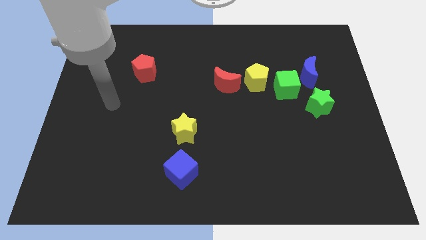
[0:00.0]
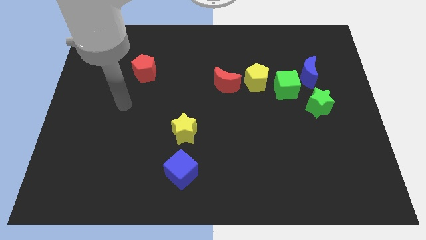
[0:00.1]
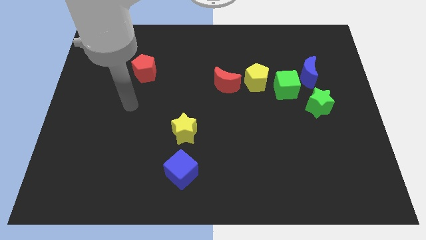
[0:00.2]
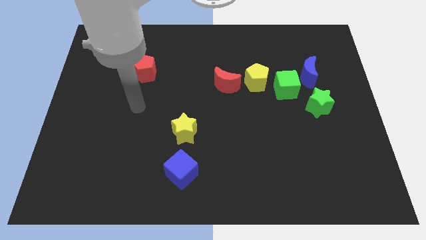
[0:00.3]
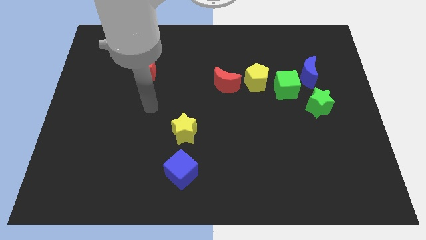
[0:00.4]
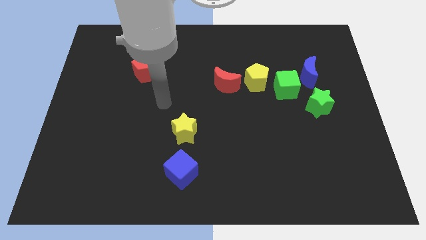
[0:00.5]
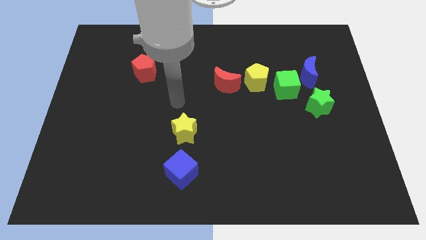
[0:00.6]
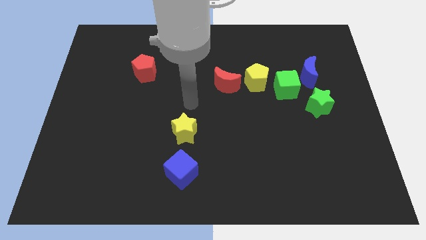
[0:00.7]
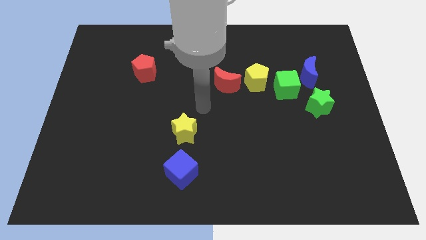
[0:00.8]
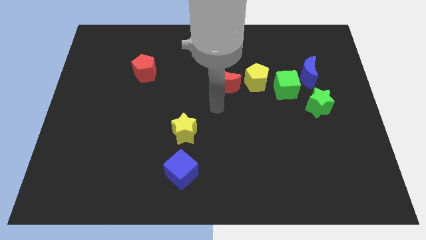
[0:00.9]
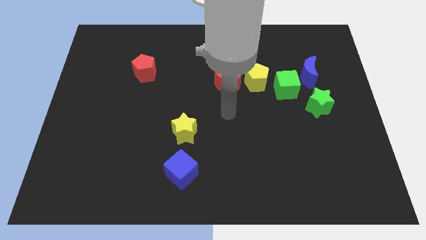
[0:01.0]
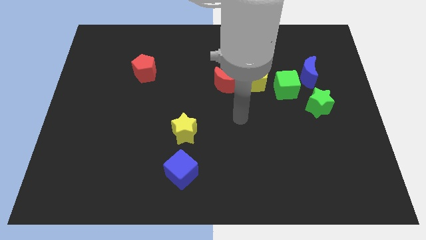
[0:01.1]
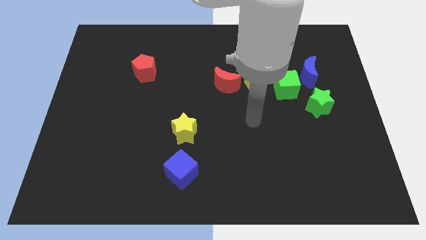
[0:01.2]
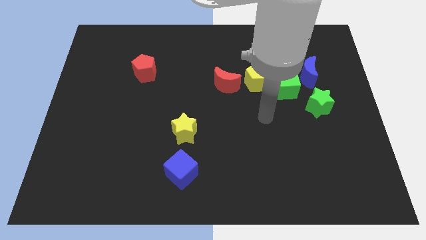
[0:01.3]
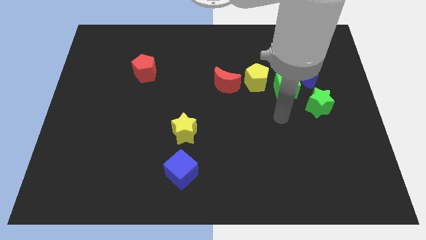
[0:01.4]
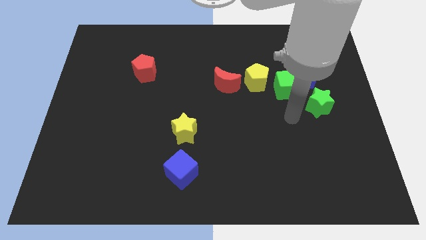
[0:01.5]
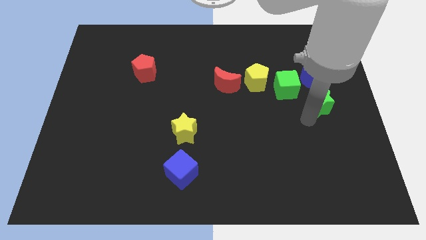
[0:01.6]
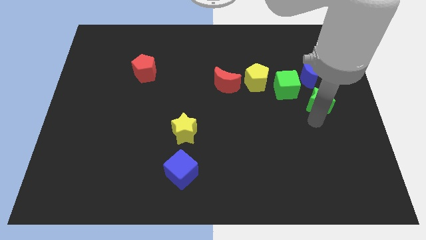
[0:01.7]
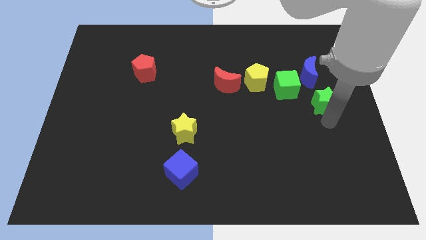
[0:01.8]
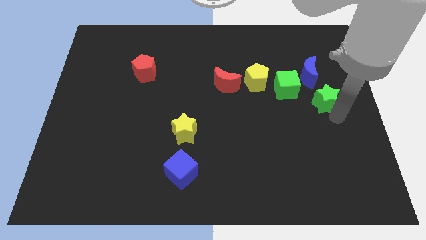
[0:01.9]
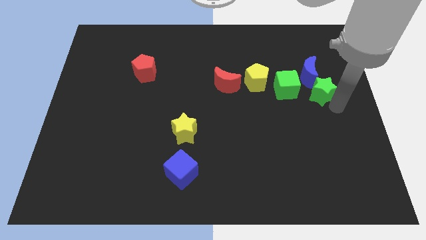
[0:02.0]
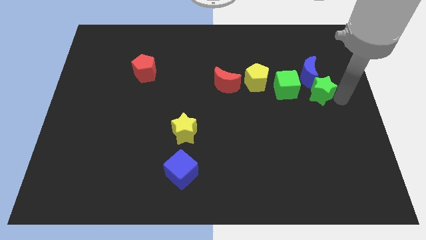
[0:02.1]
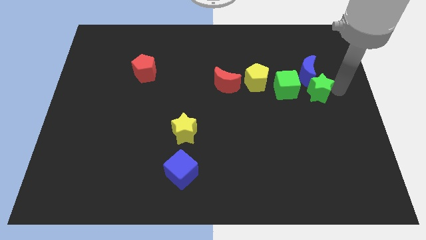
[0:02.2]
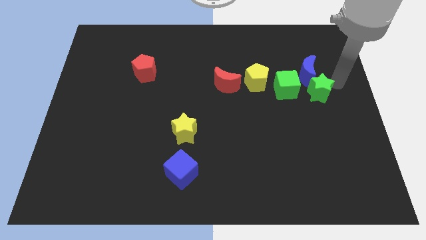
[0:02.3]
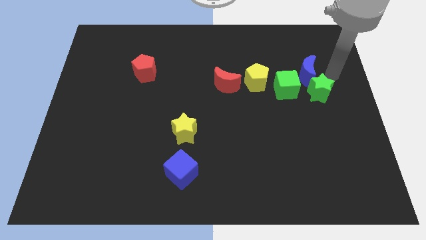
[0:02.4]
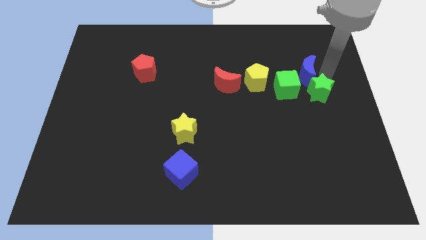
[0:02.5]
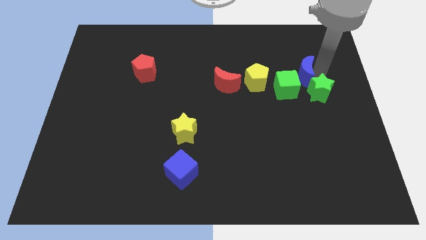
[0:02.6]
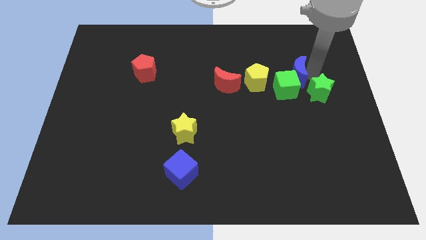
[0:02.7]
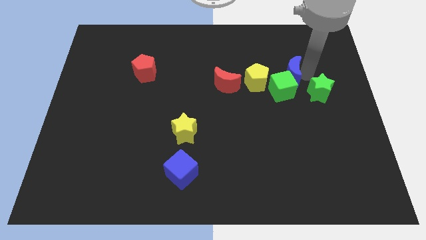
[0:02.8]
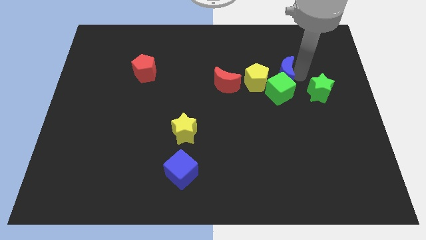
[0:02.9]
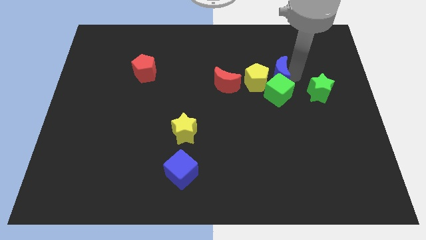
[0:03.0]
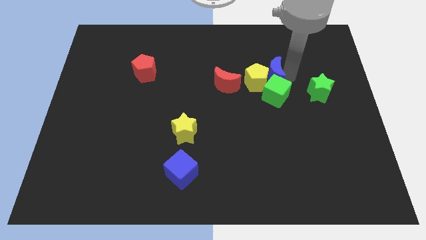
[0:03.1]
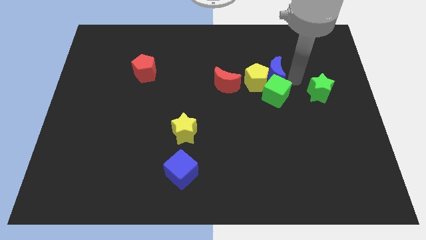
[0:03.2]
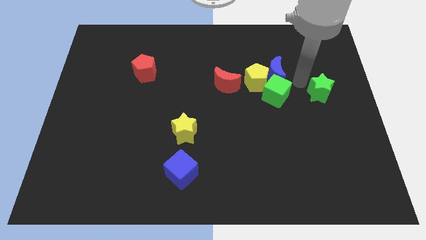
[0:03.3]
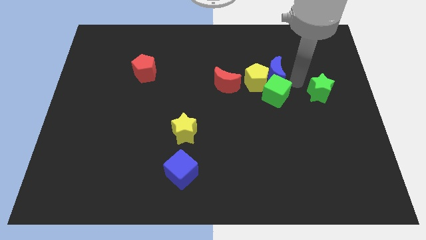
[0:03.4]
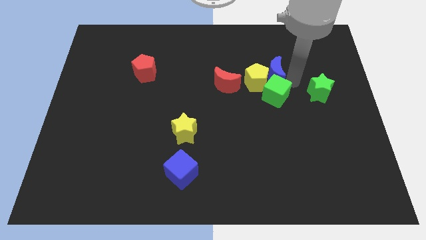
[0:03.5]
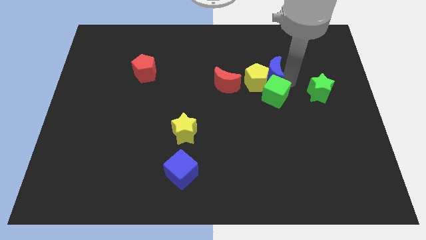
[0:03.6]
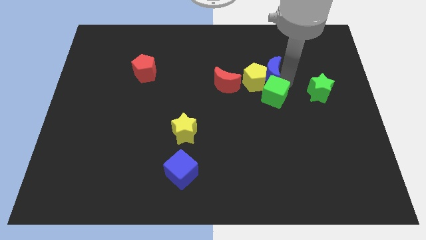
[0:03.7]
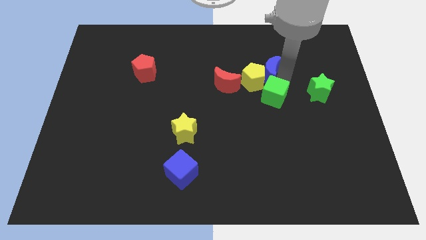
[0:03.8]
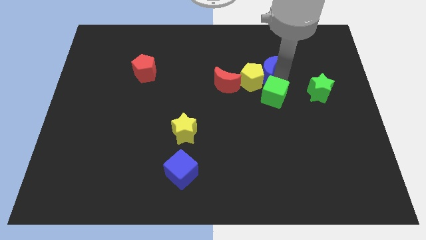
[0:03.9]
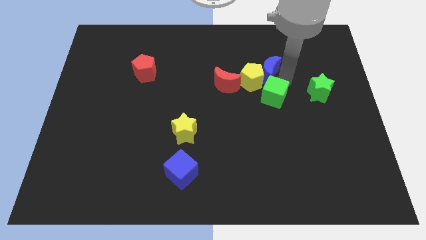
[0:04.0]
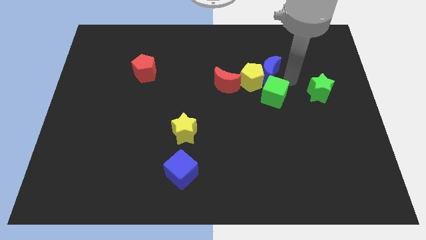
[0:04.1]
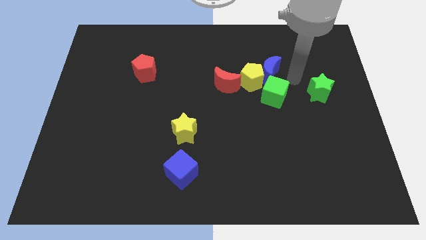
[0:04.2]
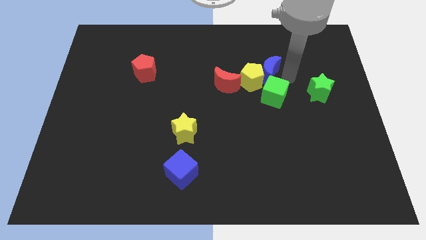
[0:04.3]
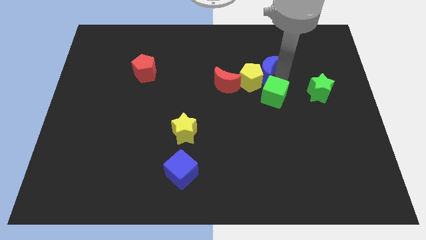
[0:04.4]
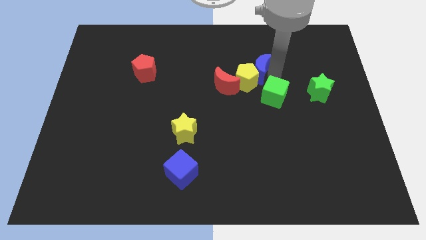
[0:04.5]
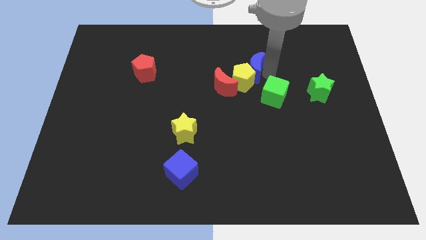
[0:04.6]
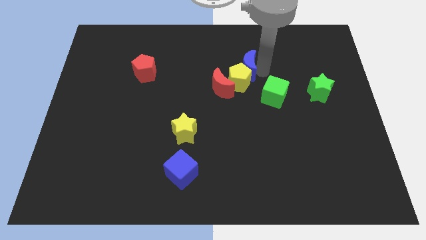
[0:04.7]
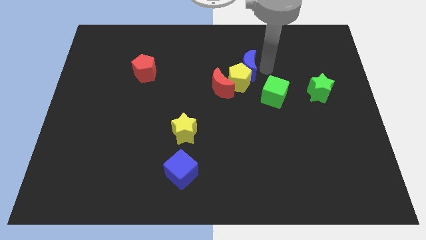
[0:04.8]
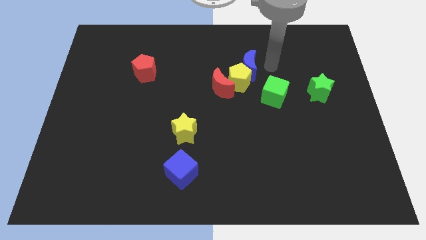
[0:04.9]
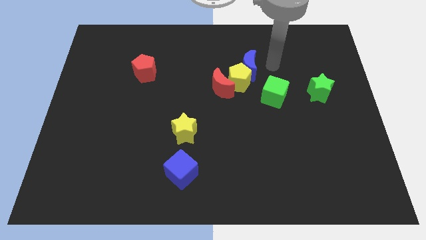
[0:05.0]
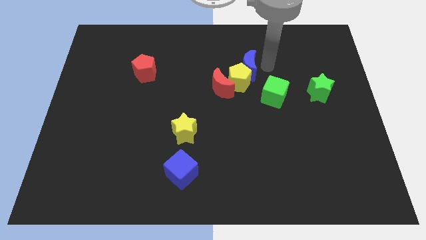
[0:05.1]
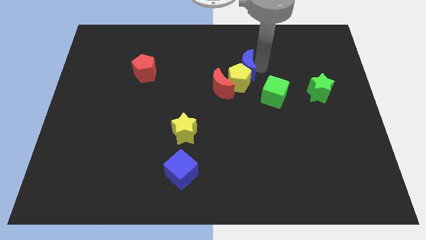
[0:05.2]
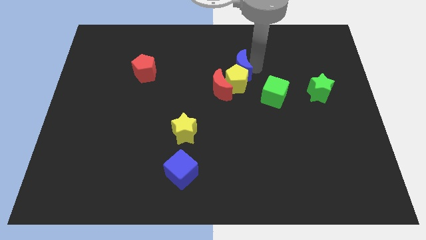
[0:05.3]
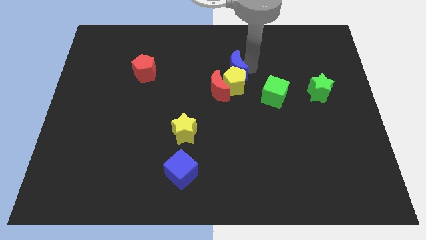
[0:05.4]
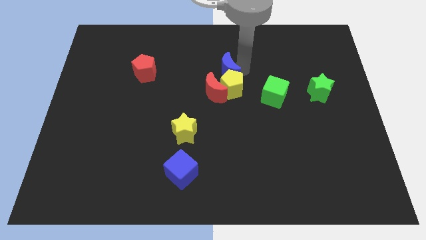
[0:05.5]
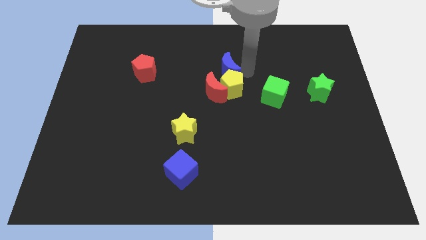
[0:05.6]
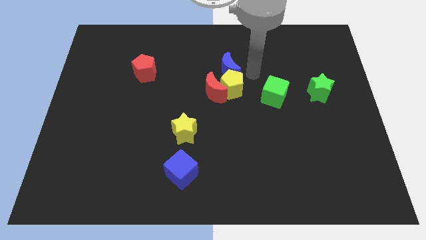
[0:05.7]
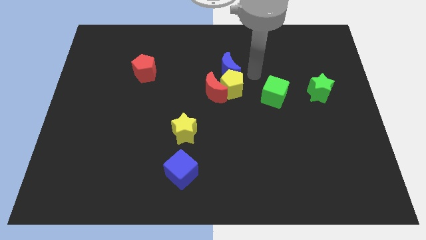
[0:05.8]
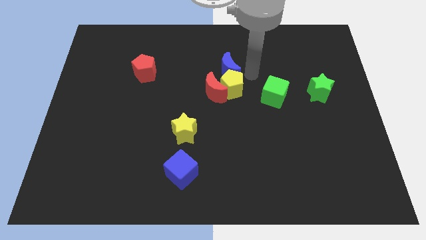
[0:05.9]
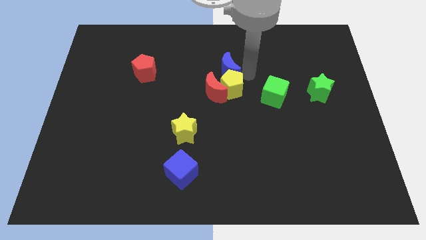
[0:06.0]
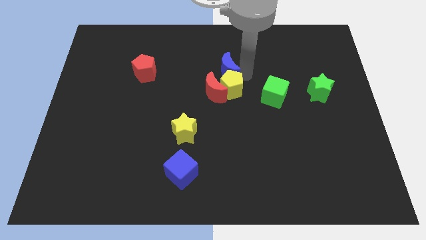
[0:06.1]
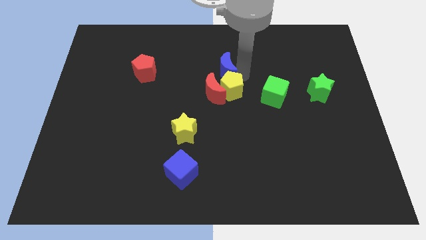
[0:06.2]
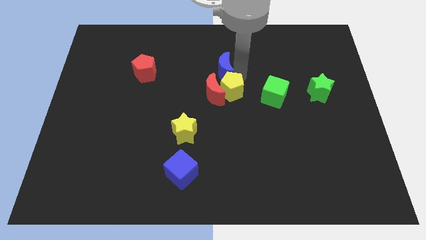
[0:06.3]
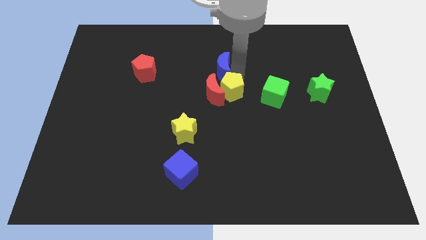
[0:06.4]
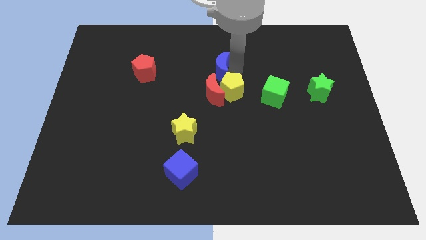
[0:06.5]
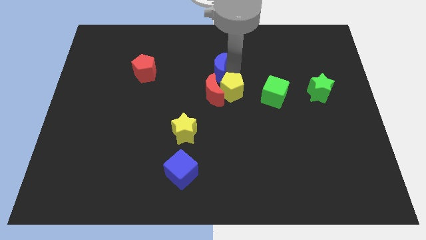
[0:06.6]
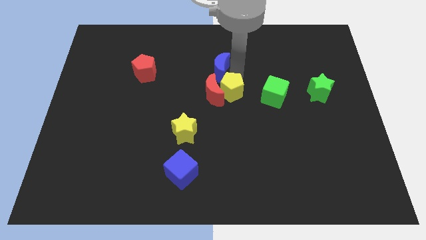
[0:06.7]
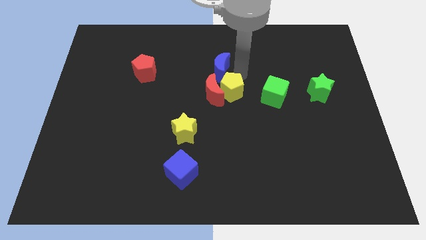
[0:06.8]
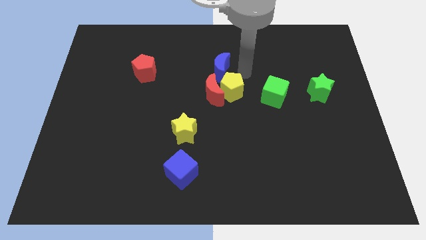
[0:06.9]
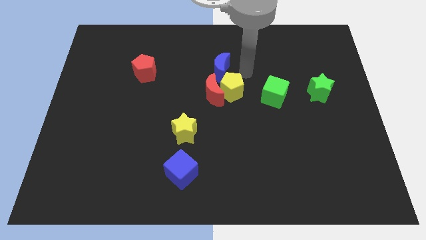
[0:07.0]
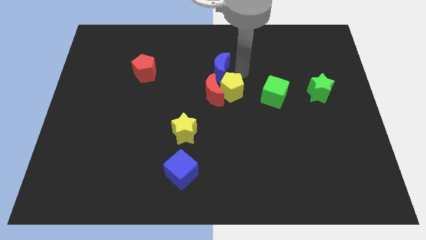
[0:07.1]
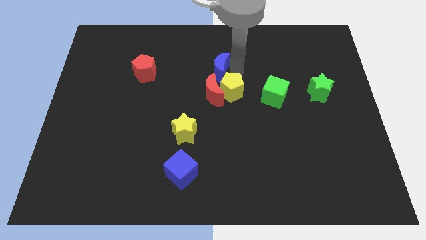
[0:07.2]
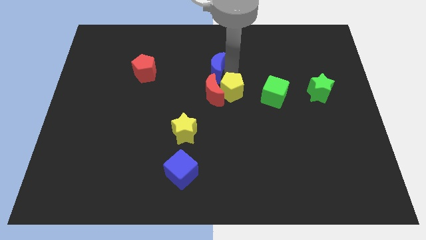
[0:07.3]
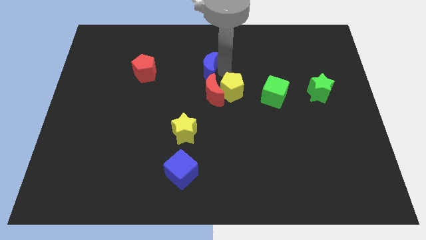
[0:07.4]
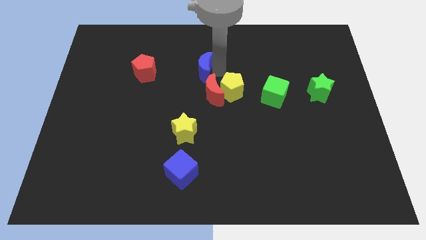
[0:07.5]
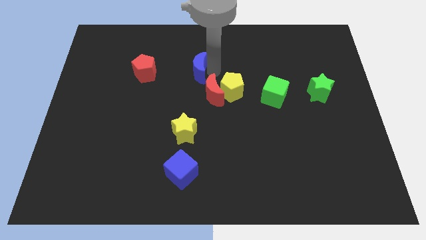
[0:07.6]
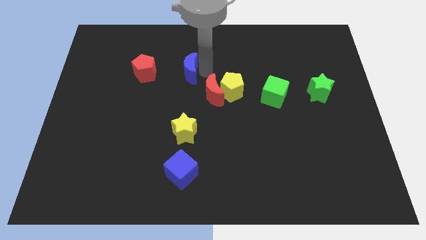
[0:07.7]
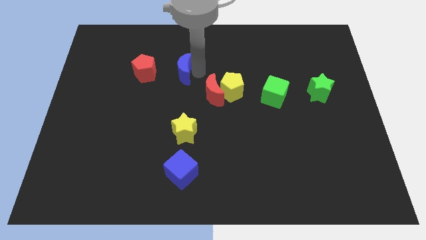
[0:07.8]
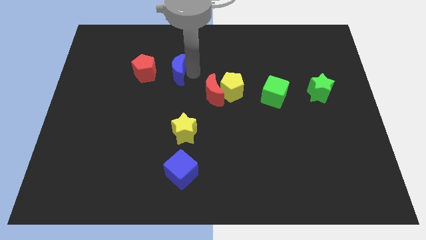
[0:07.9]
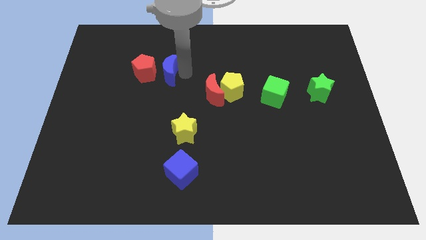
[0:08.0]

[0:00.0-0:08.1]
slide the blue moon next to the red pentagon
